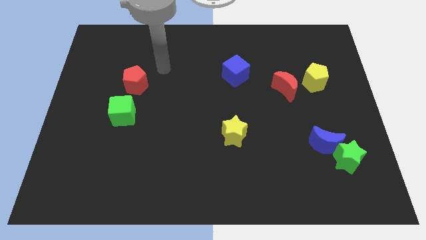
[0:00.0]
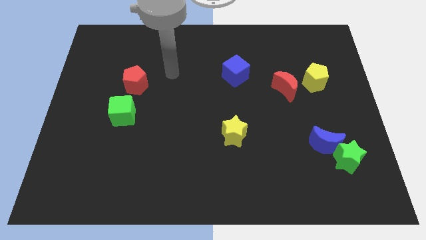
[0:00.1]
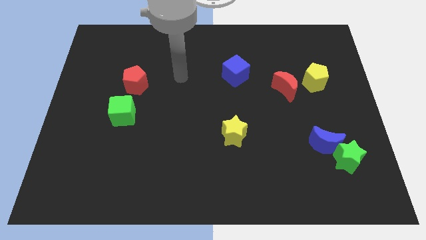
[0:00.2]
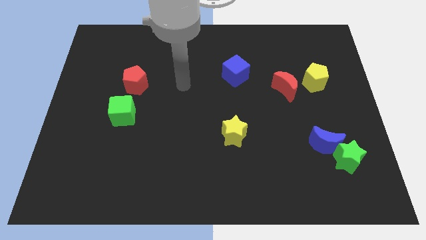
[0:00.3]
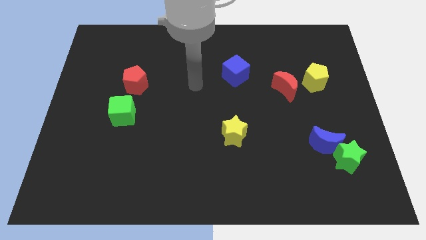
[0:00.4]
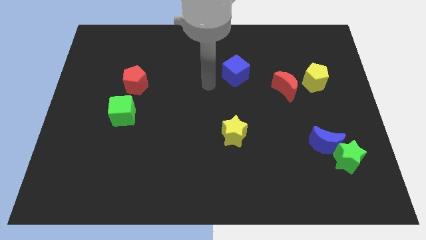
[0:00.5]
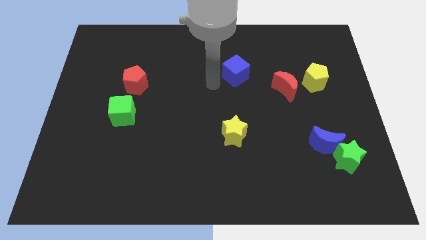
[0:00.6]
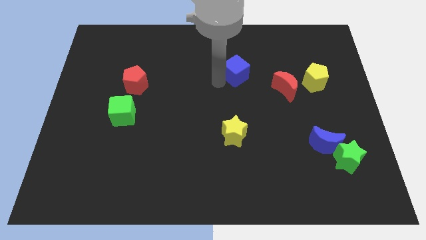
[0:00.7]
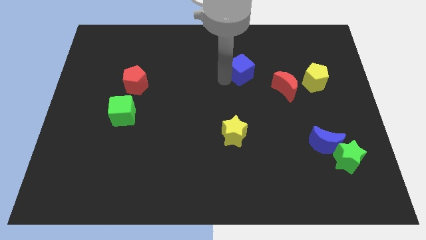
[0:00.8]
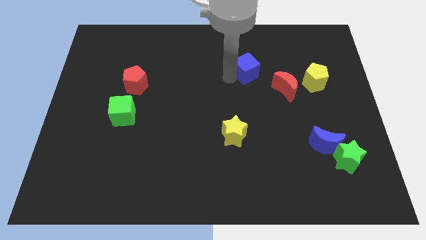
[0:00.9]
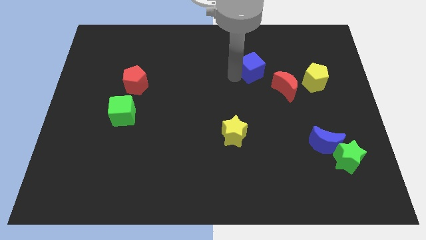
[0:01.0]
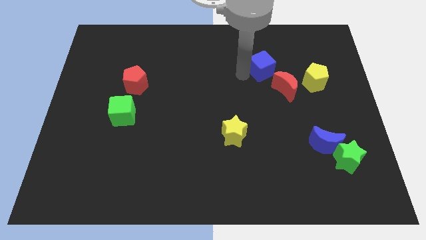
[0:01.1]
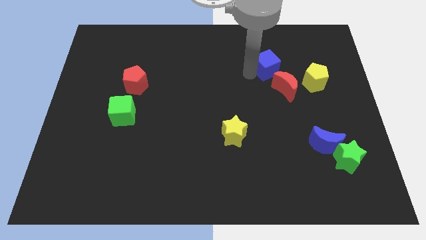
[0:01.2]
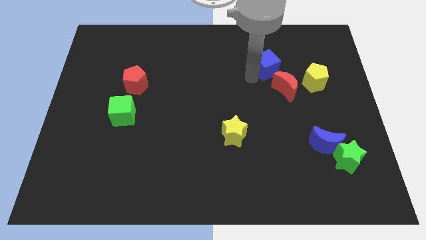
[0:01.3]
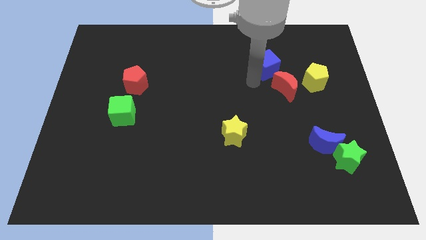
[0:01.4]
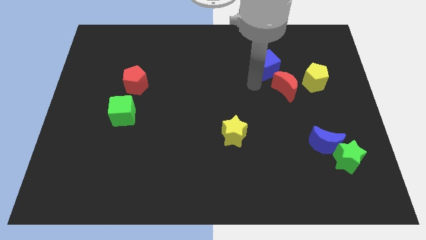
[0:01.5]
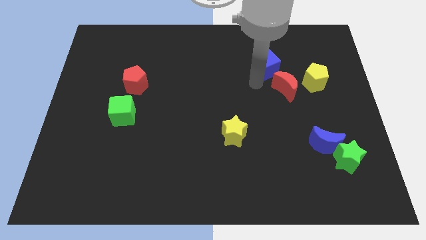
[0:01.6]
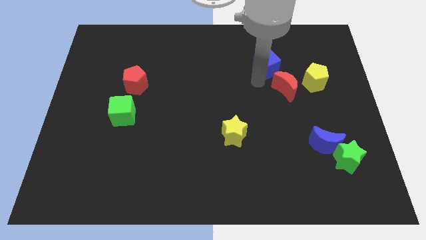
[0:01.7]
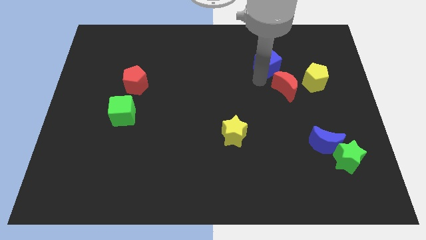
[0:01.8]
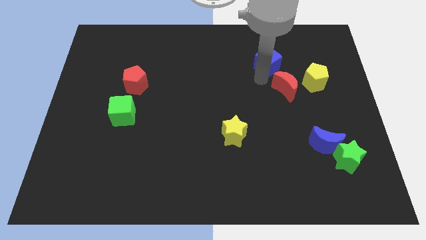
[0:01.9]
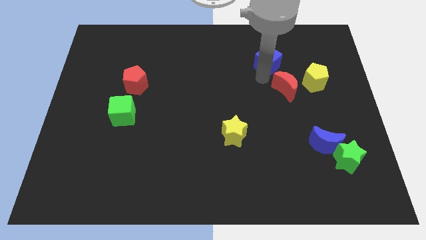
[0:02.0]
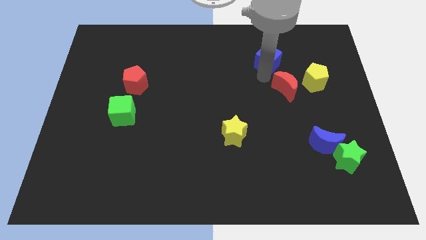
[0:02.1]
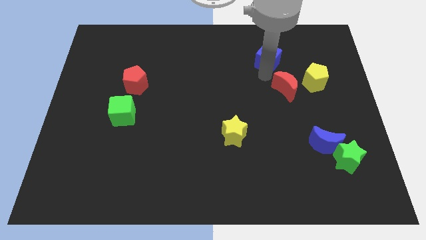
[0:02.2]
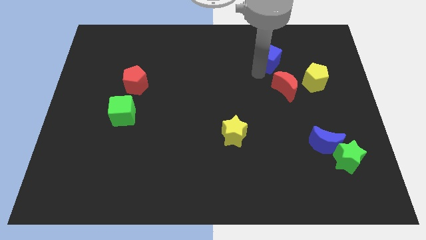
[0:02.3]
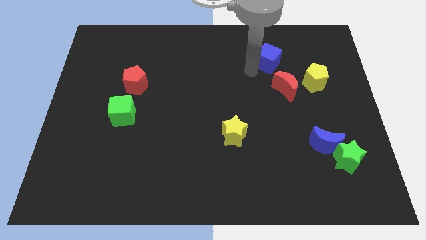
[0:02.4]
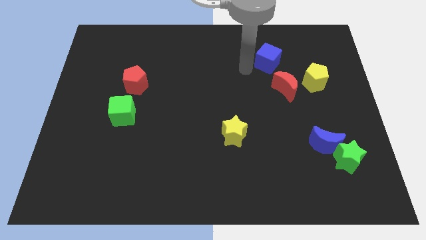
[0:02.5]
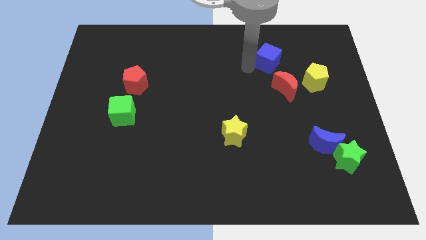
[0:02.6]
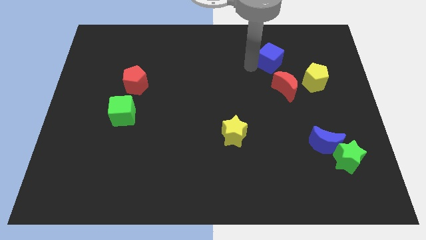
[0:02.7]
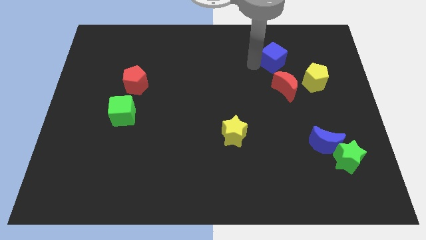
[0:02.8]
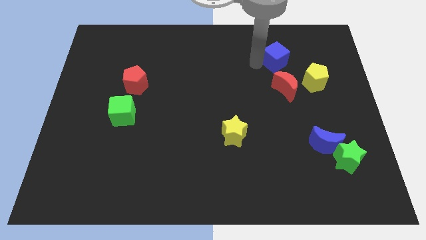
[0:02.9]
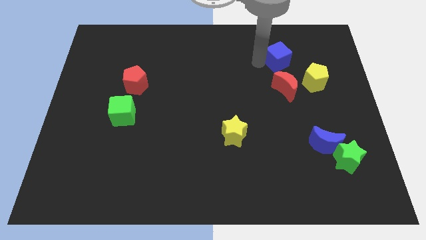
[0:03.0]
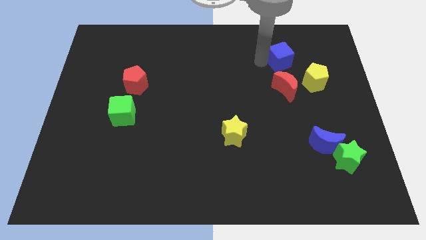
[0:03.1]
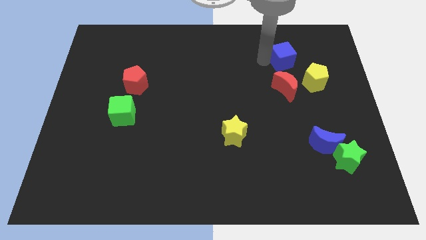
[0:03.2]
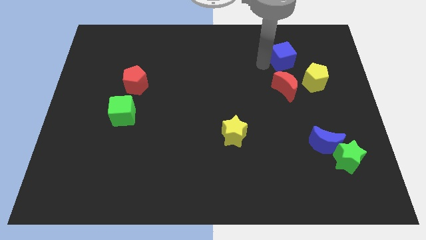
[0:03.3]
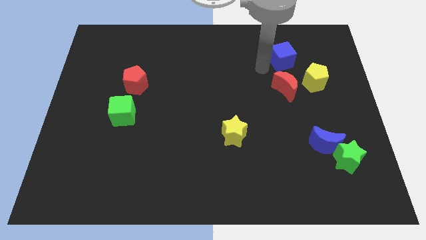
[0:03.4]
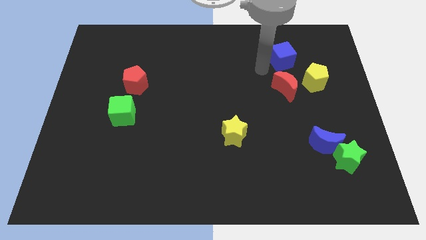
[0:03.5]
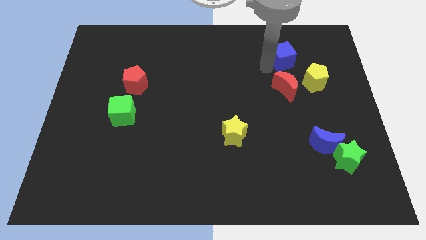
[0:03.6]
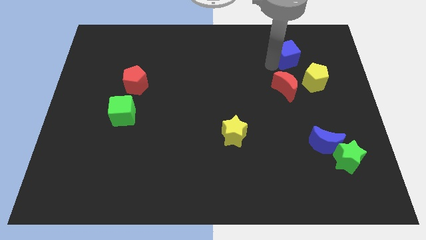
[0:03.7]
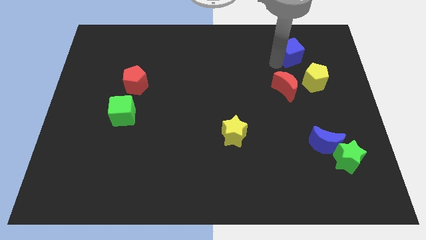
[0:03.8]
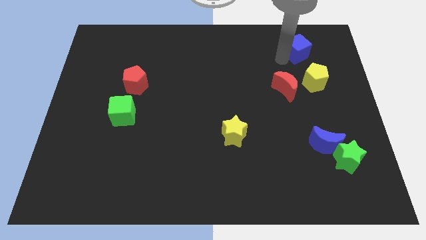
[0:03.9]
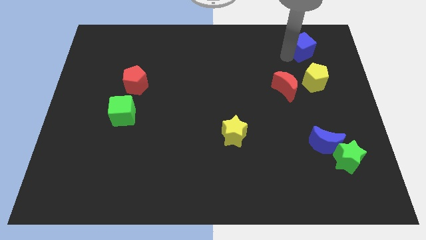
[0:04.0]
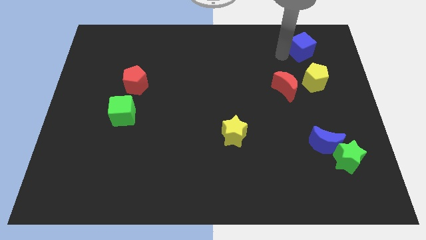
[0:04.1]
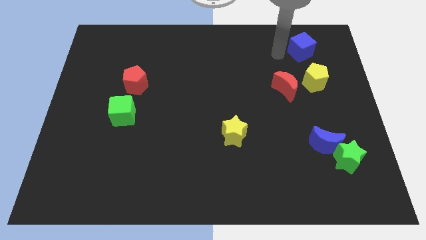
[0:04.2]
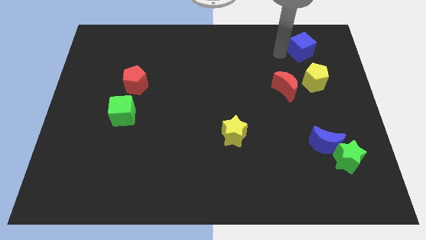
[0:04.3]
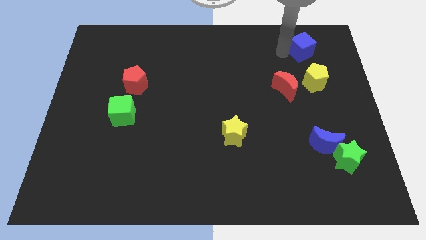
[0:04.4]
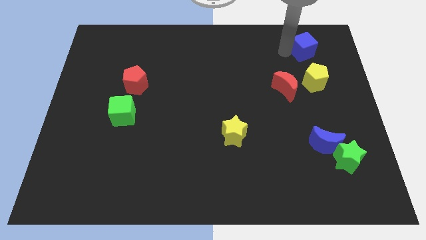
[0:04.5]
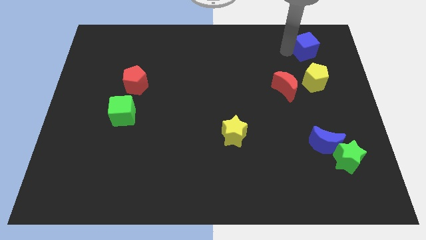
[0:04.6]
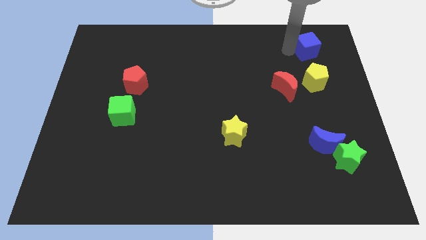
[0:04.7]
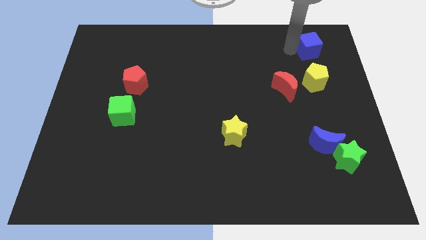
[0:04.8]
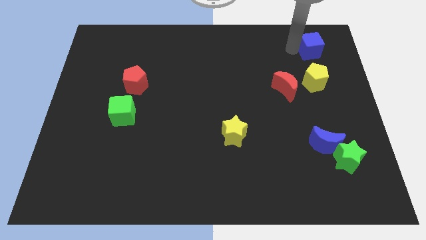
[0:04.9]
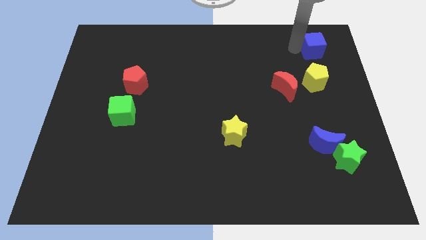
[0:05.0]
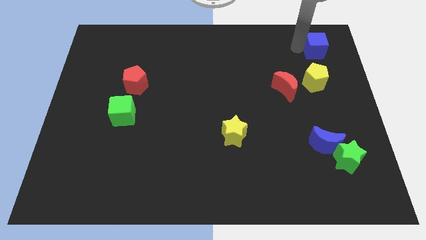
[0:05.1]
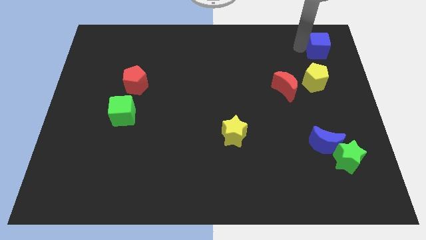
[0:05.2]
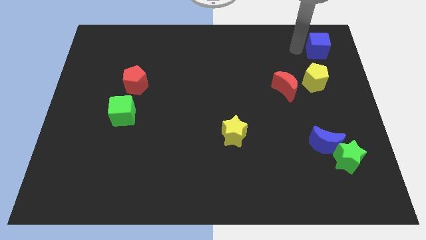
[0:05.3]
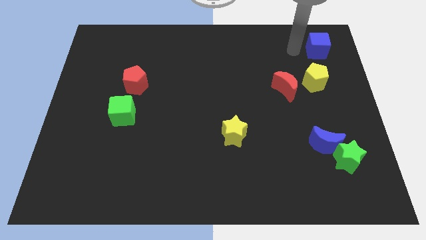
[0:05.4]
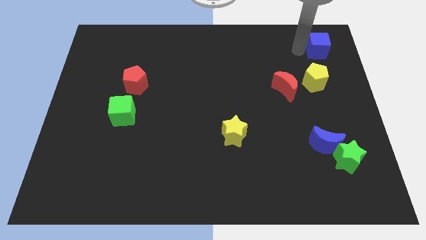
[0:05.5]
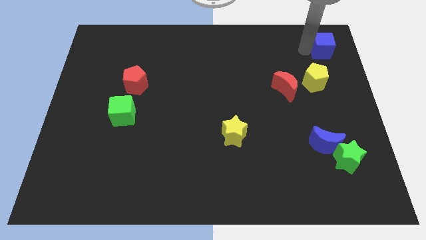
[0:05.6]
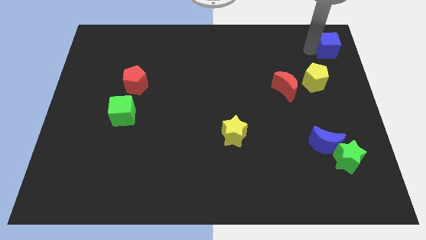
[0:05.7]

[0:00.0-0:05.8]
slide the blue cube to the top right corner
